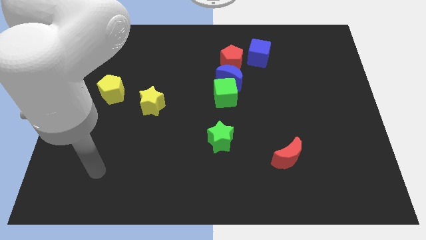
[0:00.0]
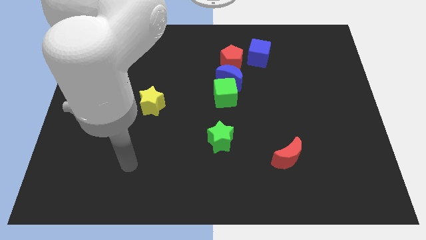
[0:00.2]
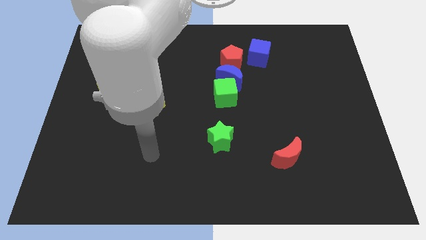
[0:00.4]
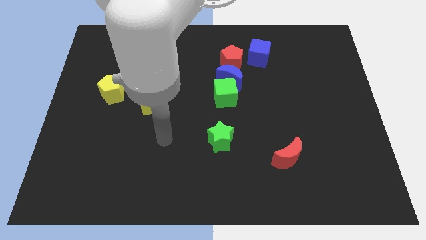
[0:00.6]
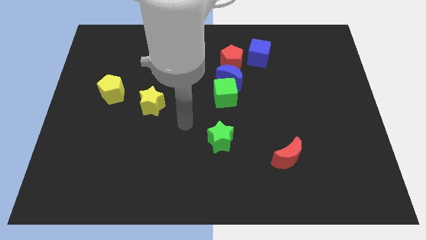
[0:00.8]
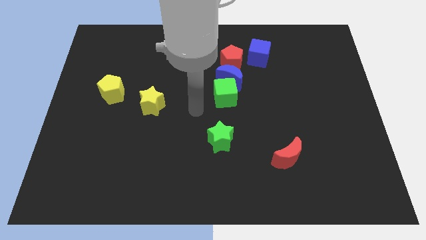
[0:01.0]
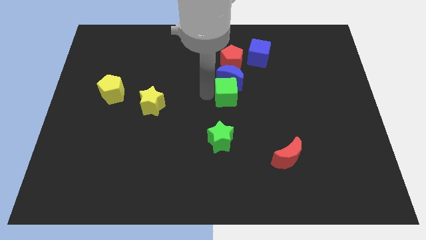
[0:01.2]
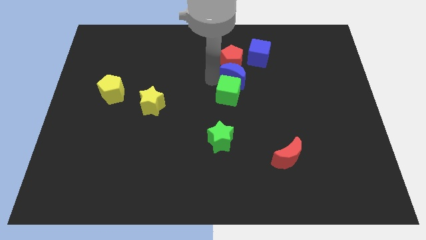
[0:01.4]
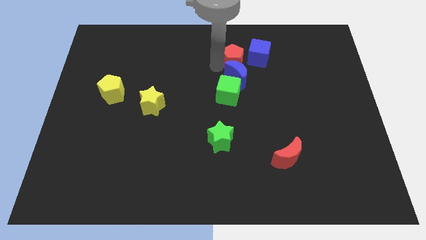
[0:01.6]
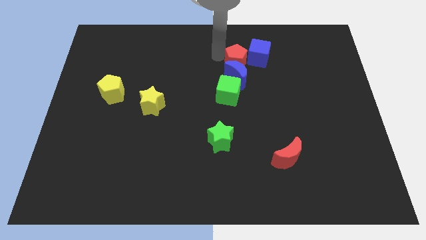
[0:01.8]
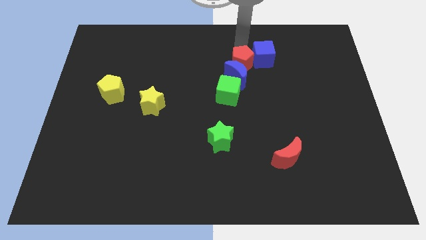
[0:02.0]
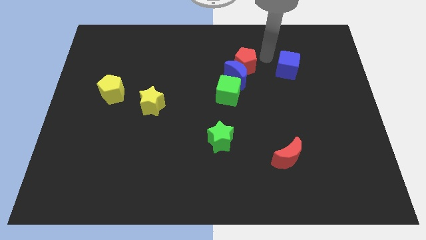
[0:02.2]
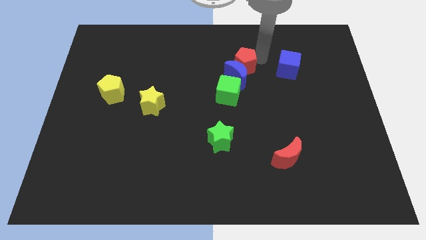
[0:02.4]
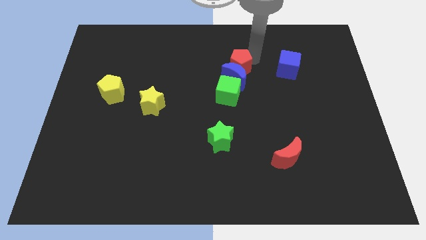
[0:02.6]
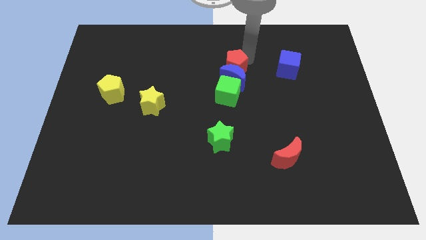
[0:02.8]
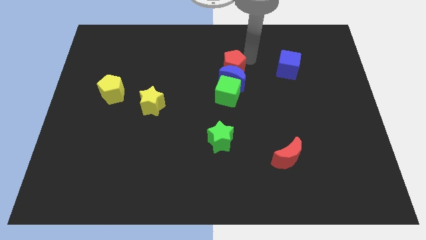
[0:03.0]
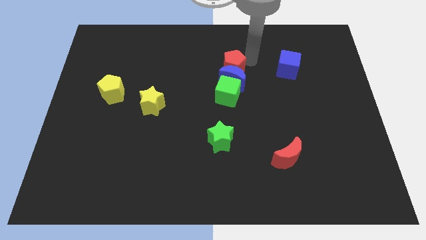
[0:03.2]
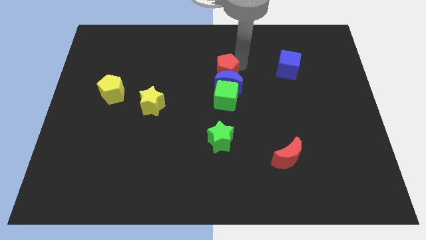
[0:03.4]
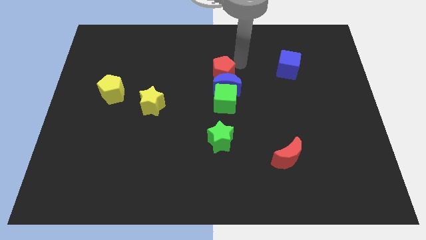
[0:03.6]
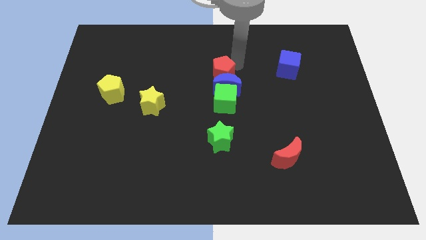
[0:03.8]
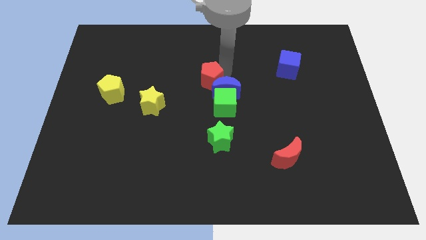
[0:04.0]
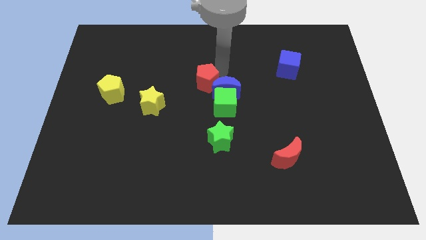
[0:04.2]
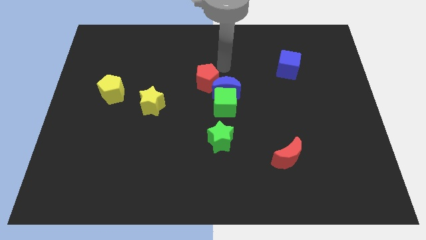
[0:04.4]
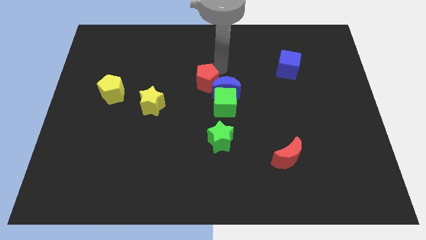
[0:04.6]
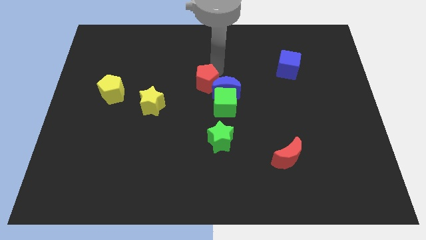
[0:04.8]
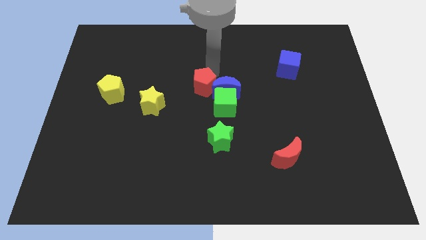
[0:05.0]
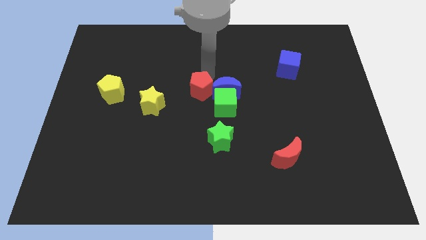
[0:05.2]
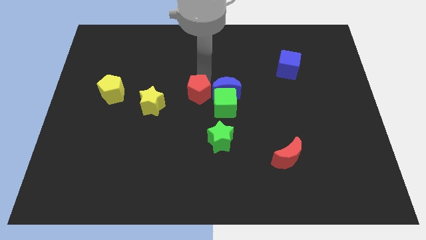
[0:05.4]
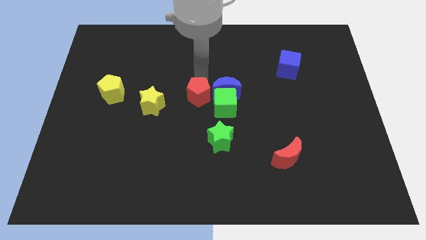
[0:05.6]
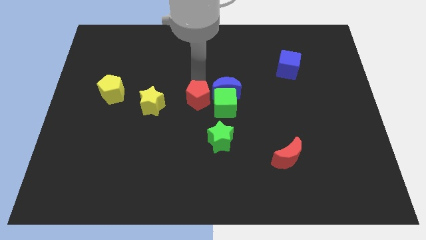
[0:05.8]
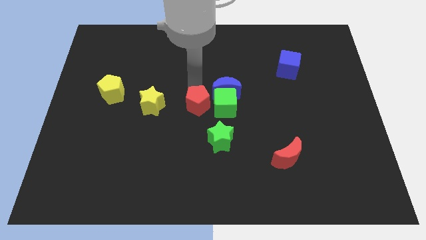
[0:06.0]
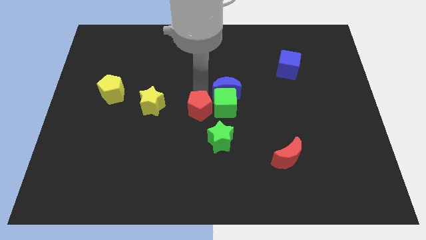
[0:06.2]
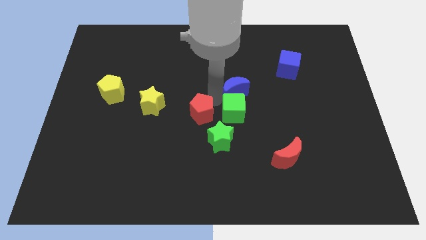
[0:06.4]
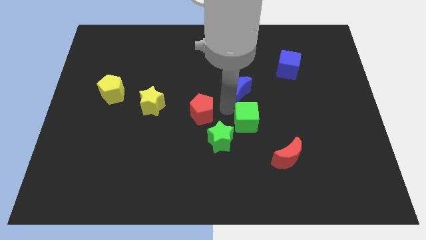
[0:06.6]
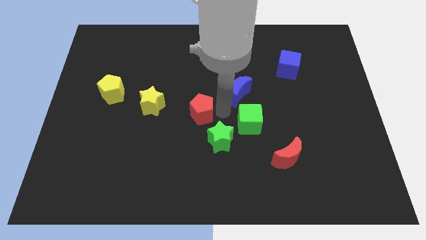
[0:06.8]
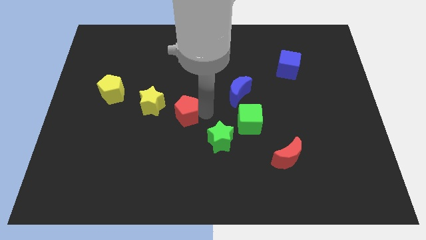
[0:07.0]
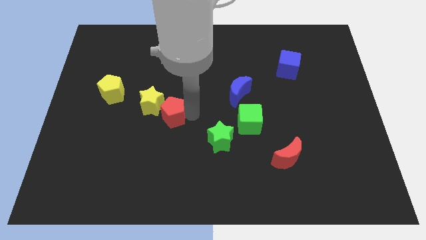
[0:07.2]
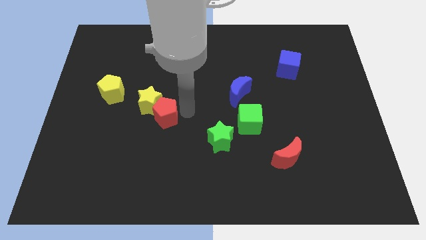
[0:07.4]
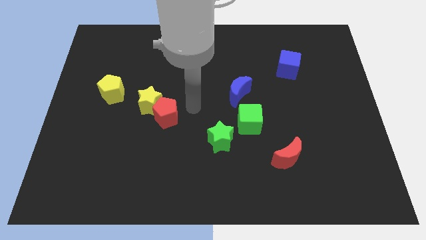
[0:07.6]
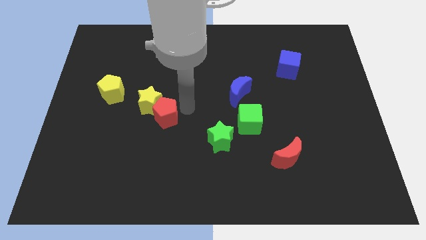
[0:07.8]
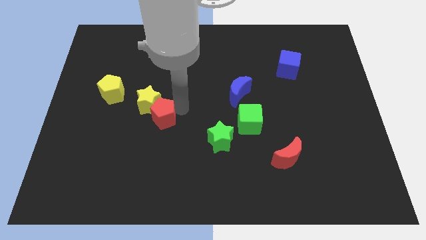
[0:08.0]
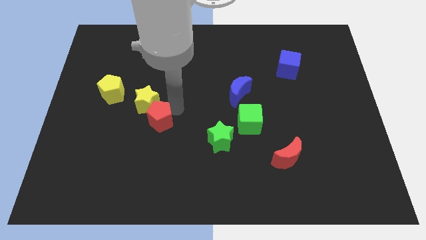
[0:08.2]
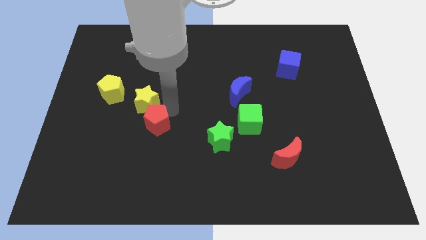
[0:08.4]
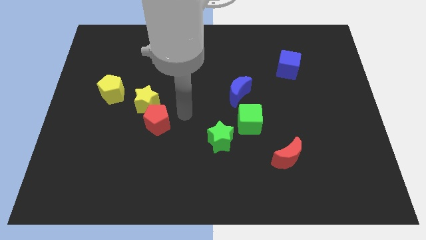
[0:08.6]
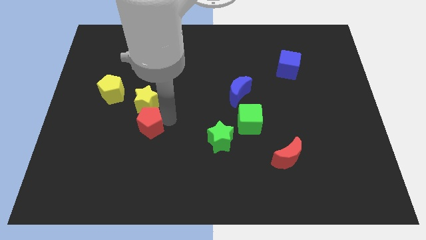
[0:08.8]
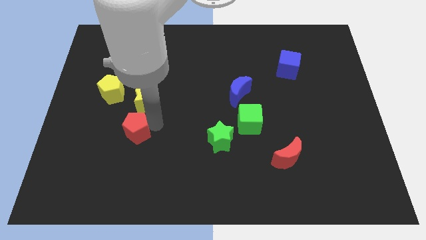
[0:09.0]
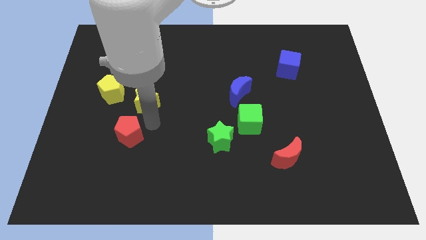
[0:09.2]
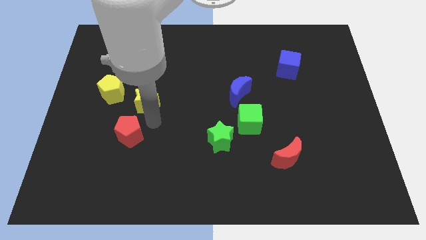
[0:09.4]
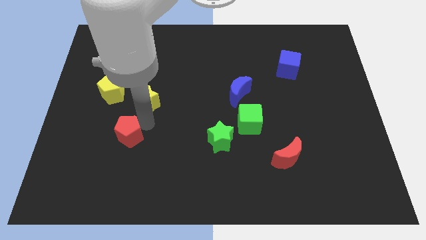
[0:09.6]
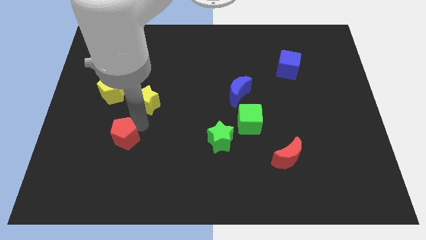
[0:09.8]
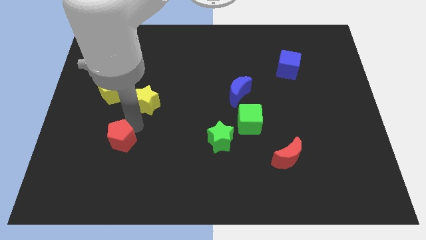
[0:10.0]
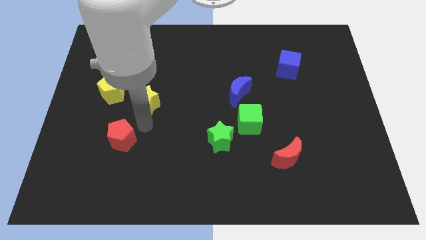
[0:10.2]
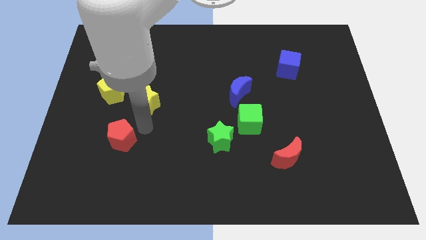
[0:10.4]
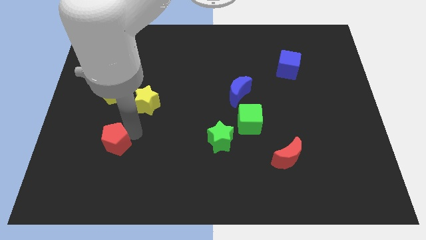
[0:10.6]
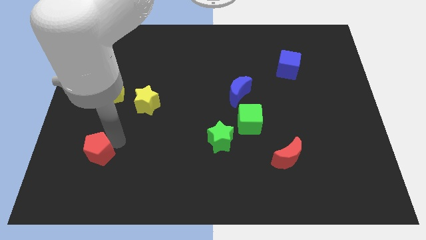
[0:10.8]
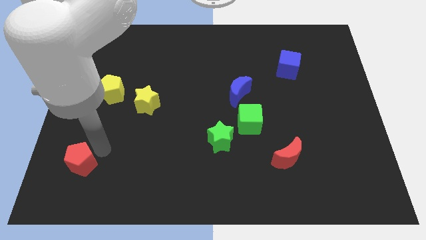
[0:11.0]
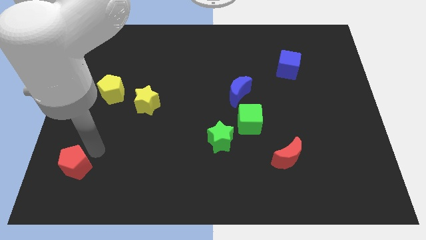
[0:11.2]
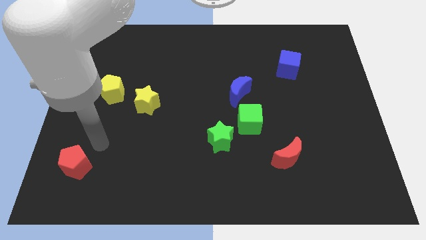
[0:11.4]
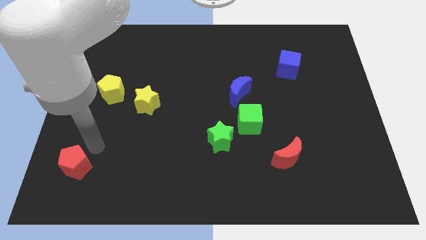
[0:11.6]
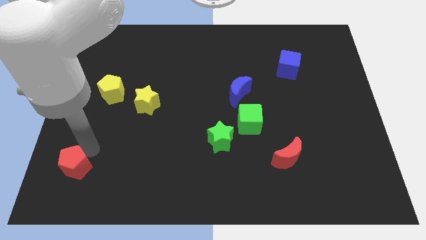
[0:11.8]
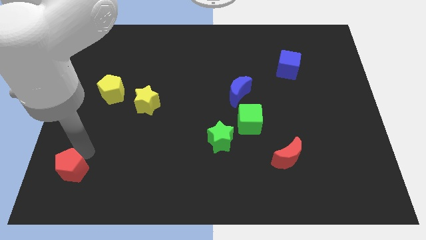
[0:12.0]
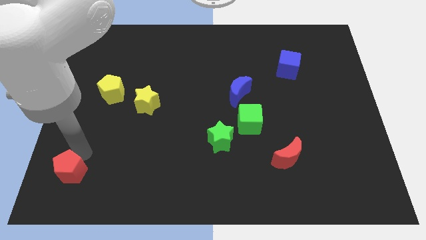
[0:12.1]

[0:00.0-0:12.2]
slide the red pentagon to the lower left corner
